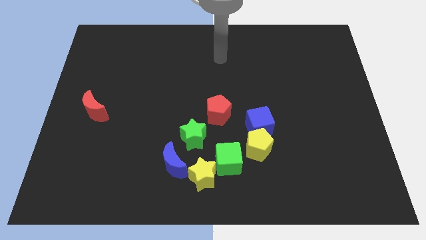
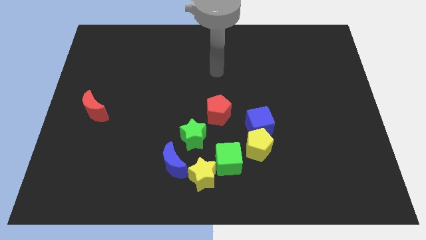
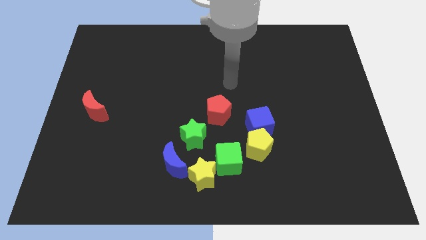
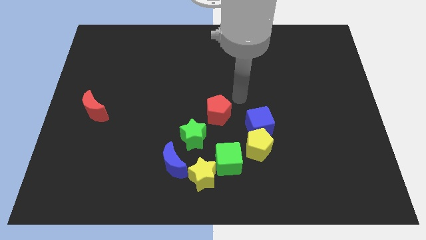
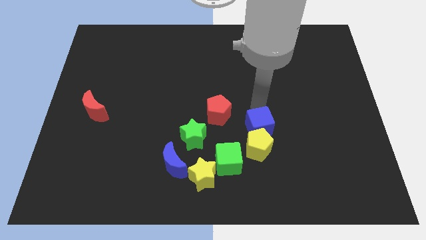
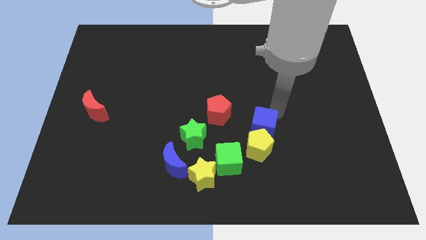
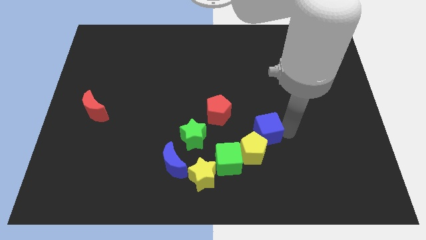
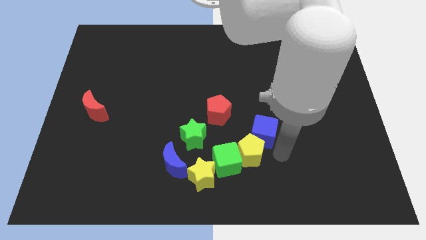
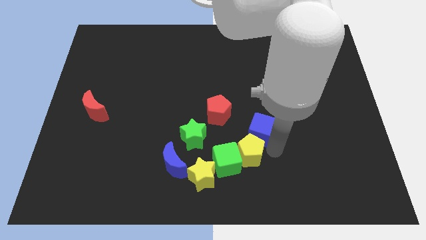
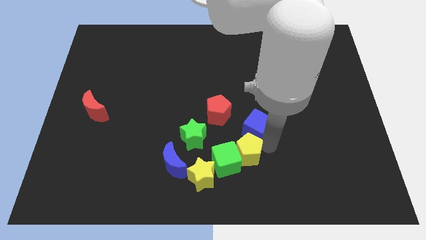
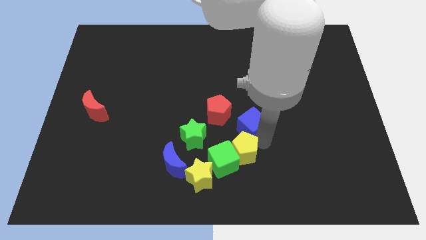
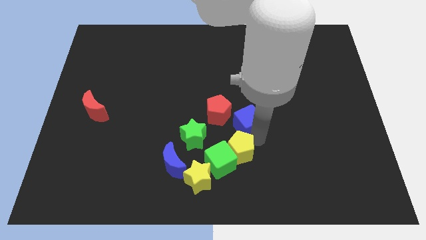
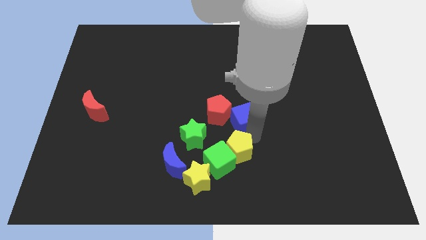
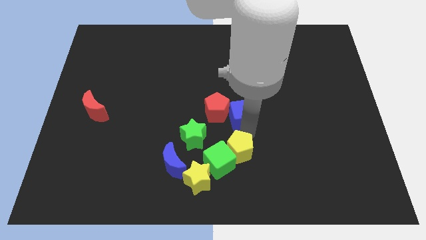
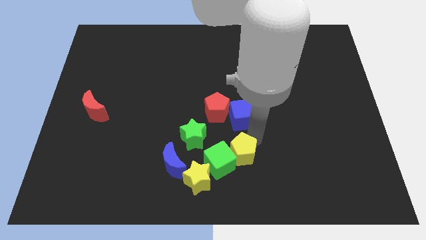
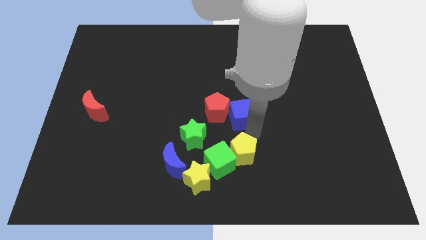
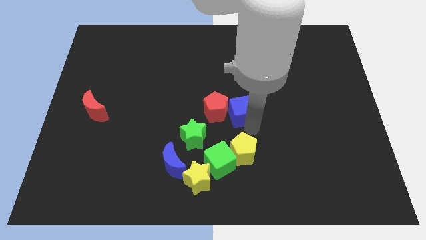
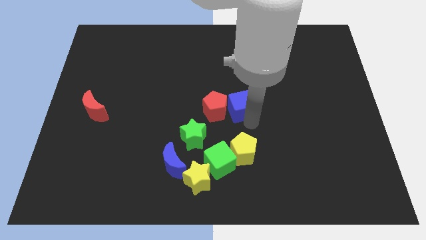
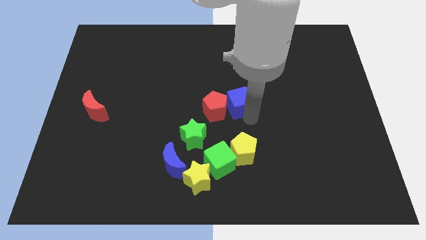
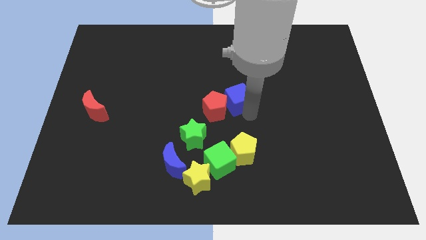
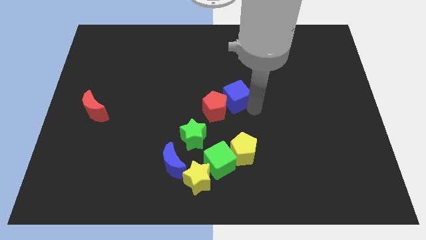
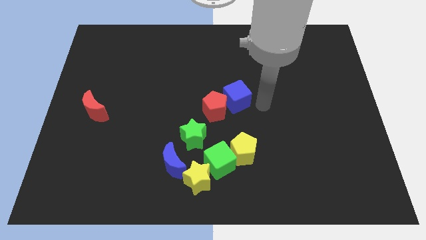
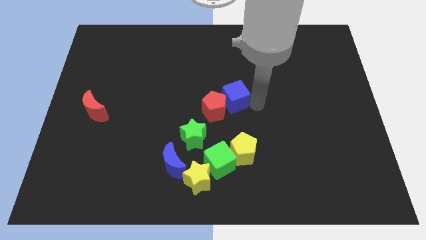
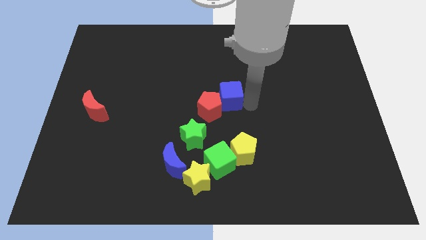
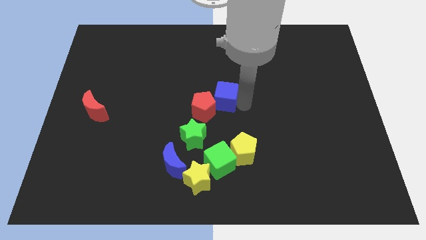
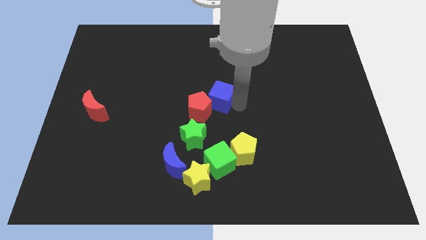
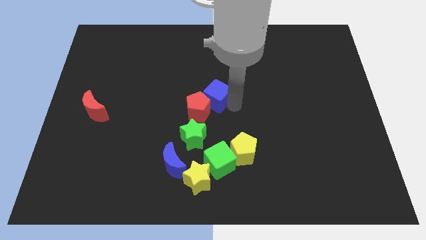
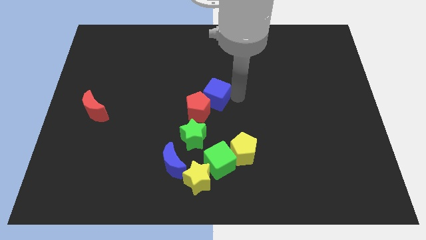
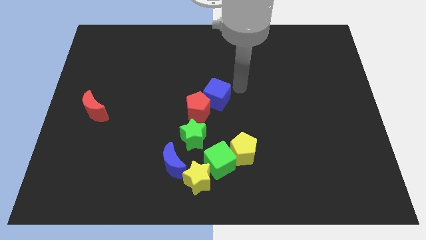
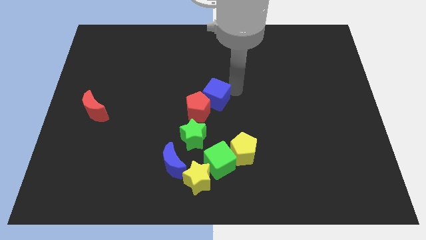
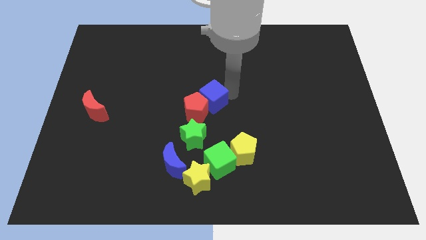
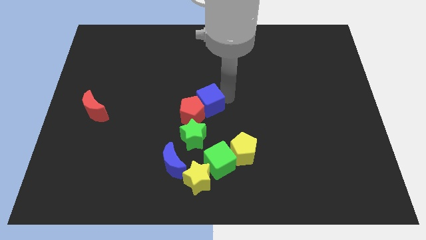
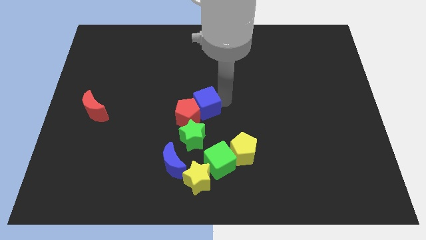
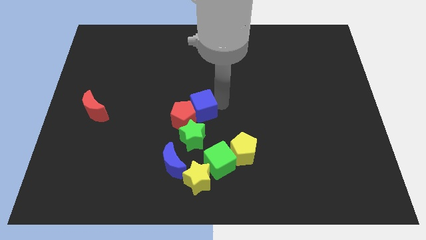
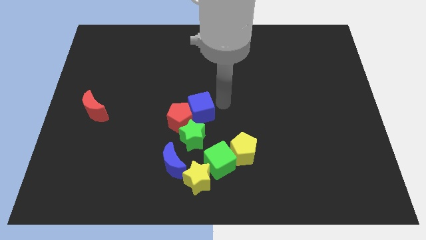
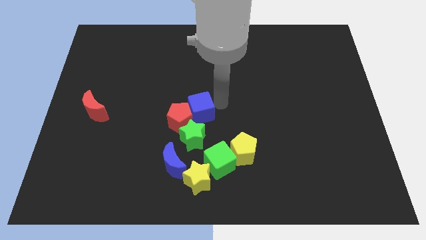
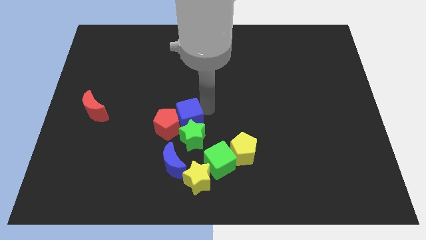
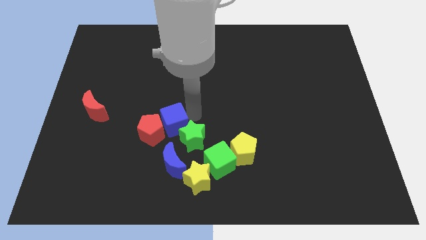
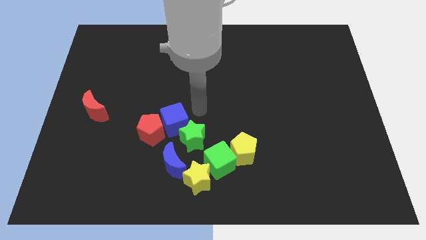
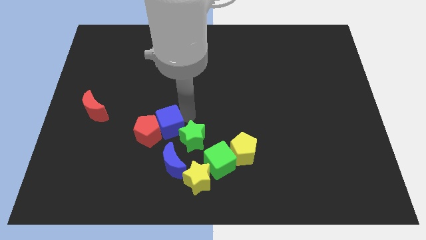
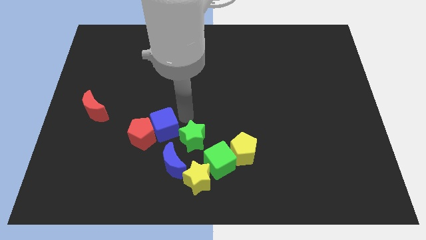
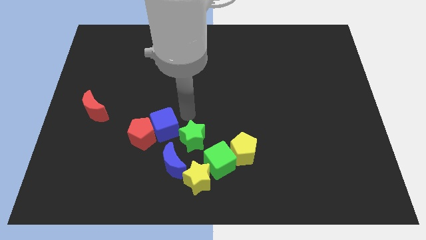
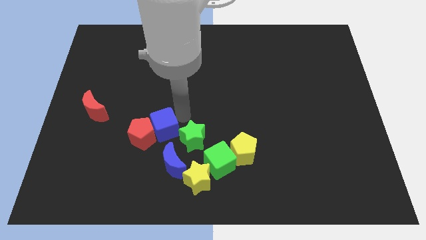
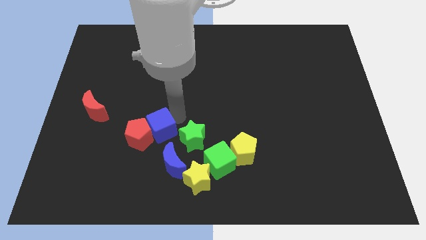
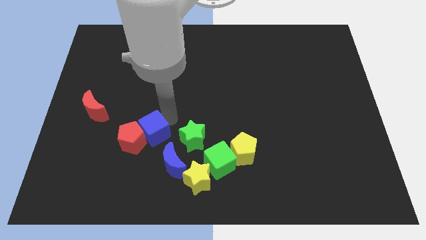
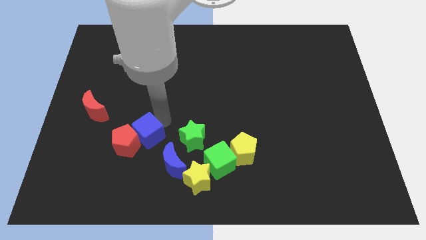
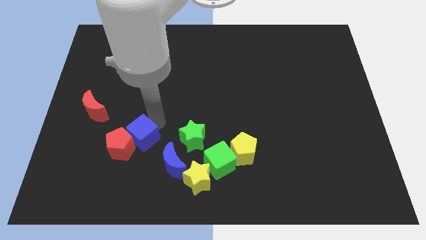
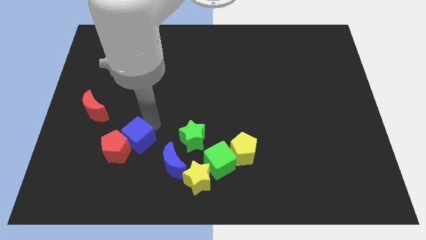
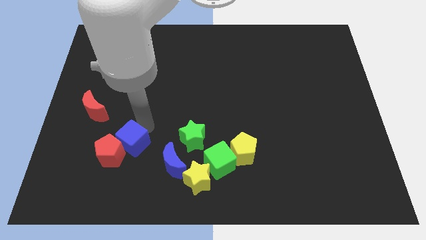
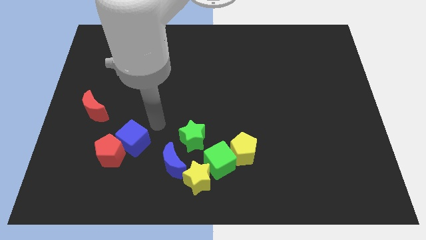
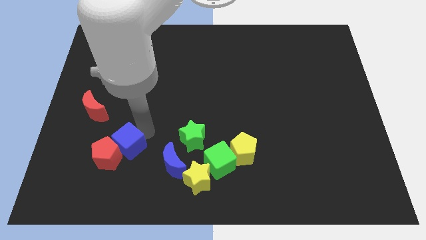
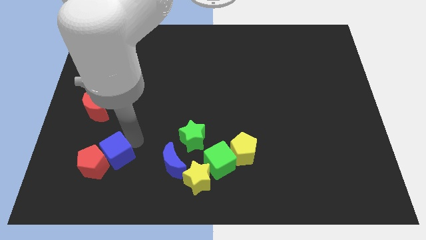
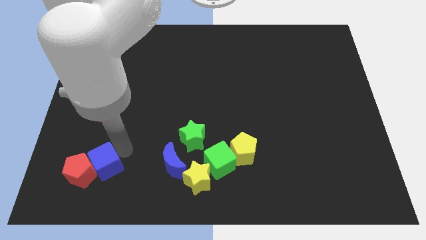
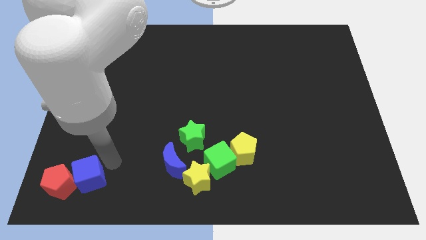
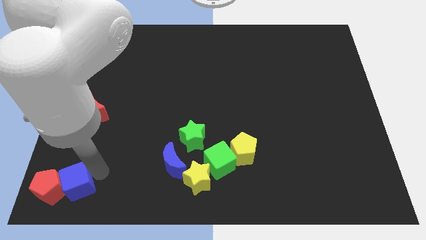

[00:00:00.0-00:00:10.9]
push the blue cube to the bottom left
